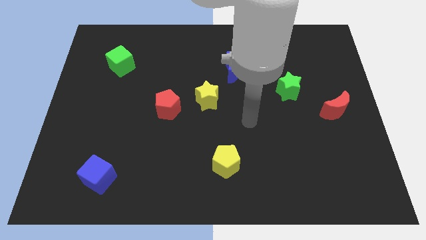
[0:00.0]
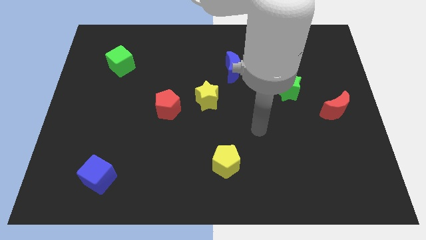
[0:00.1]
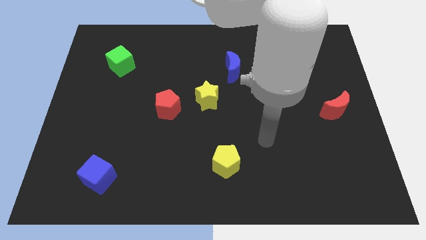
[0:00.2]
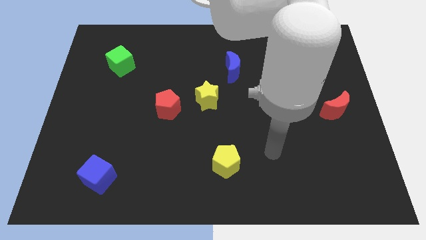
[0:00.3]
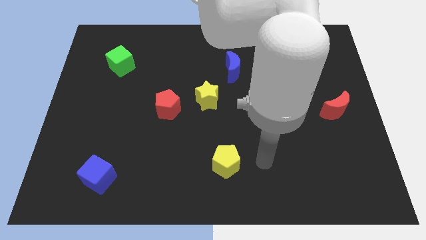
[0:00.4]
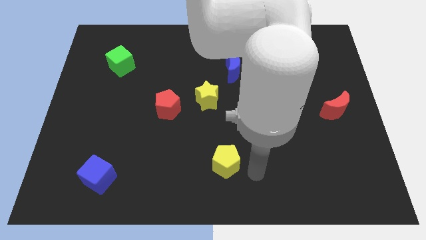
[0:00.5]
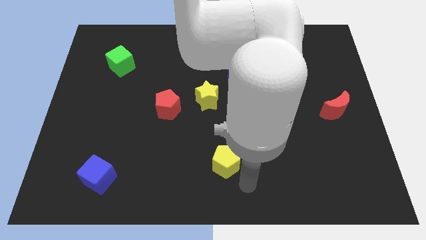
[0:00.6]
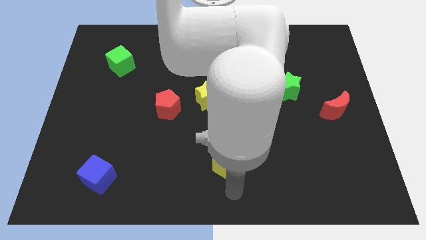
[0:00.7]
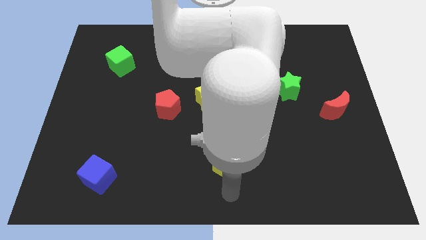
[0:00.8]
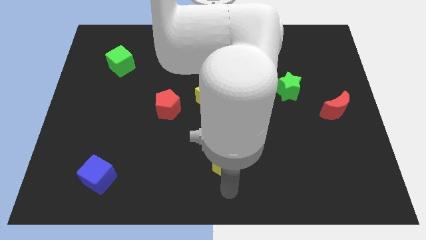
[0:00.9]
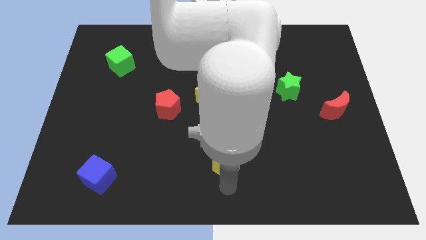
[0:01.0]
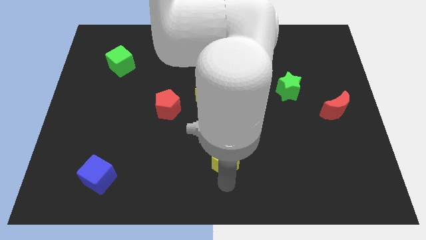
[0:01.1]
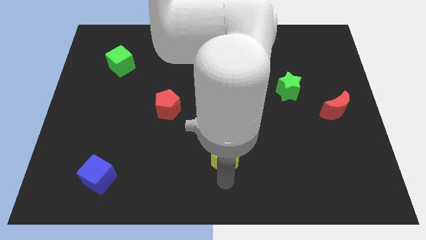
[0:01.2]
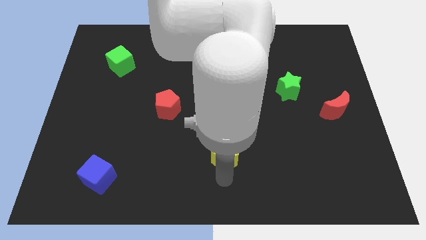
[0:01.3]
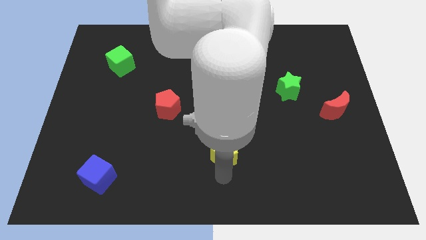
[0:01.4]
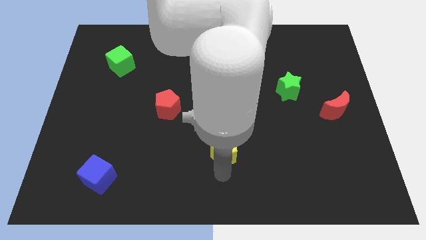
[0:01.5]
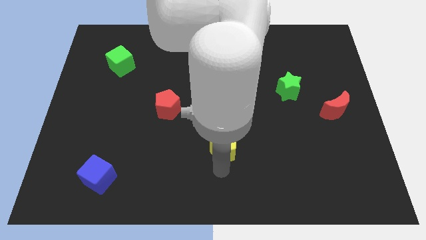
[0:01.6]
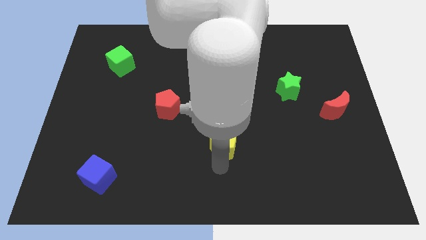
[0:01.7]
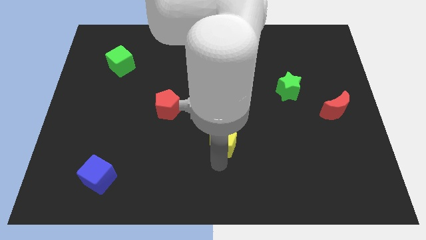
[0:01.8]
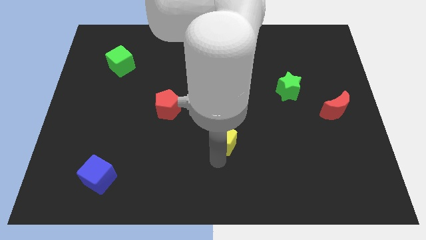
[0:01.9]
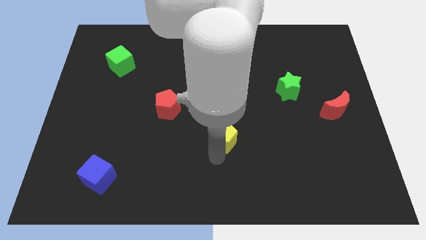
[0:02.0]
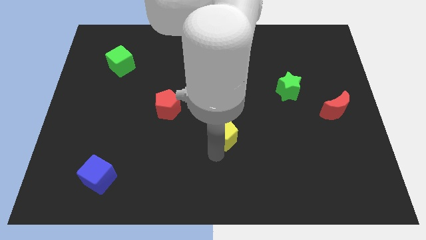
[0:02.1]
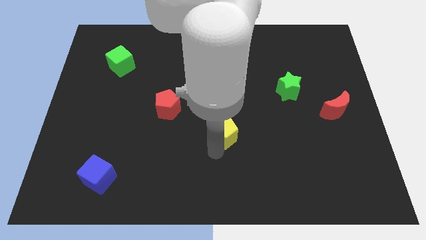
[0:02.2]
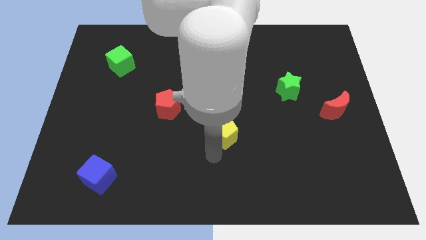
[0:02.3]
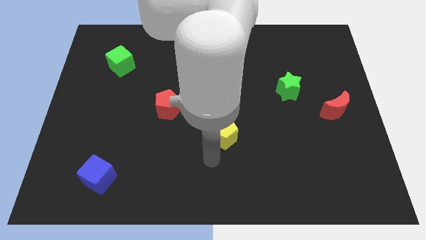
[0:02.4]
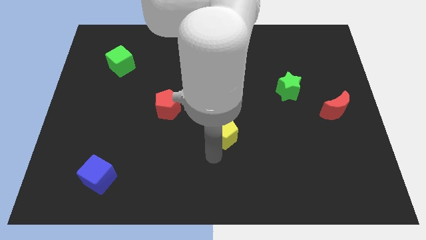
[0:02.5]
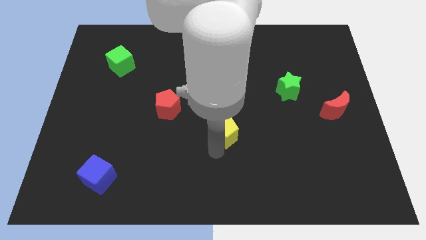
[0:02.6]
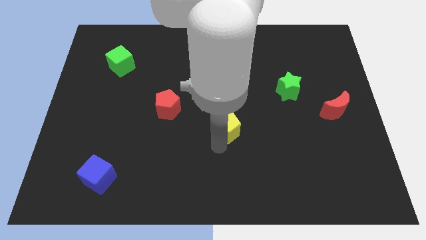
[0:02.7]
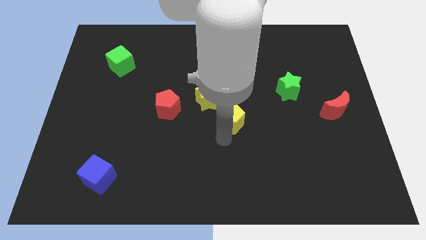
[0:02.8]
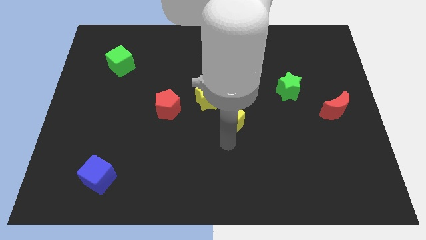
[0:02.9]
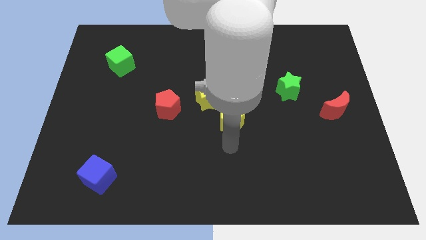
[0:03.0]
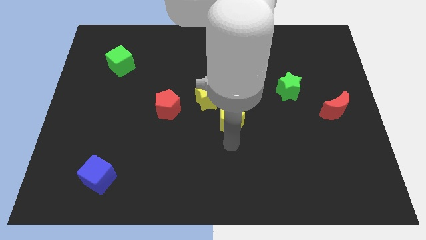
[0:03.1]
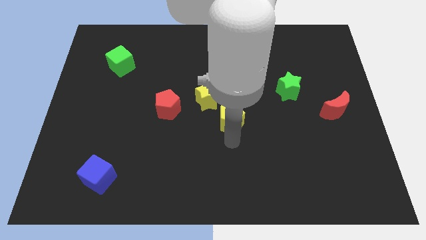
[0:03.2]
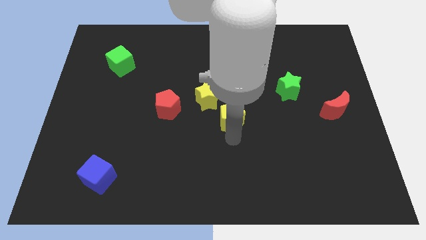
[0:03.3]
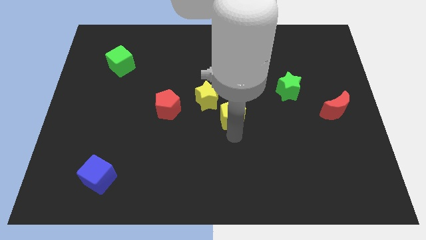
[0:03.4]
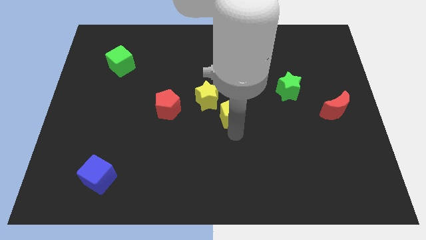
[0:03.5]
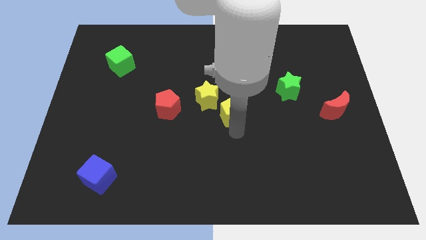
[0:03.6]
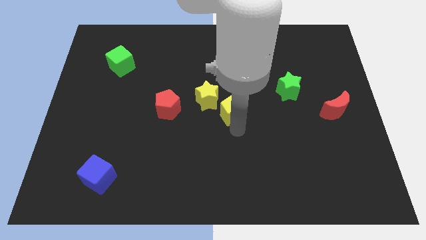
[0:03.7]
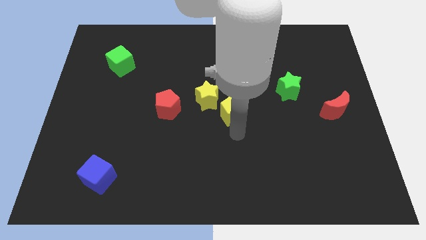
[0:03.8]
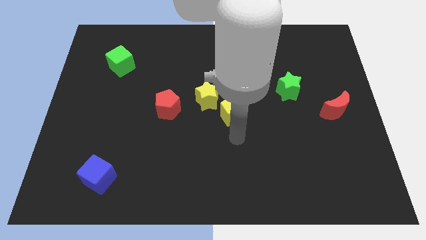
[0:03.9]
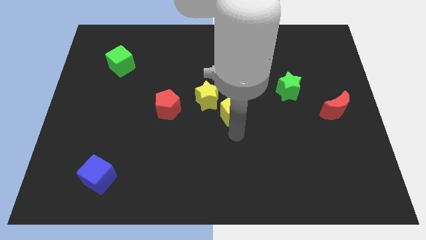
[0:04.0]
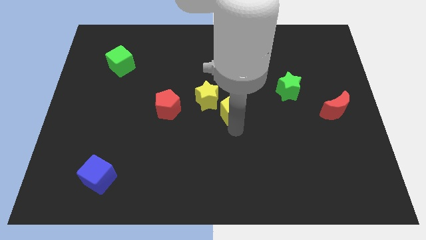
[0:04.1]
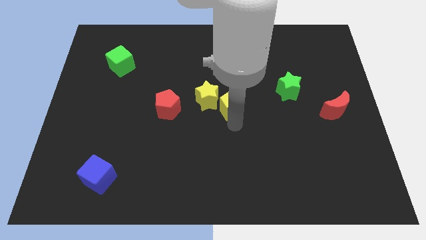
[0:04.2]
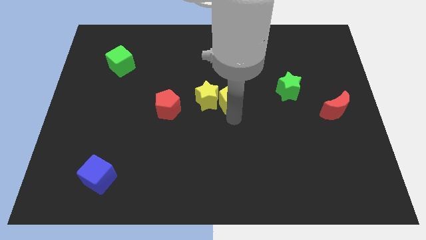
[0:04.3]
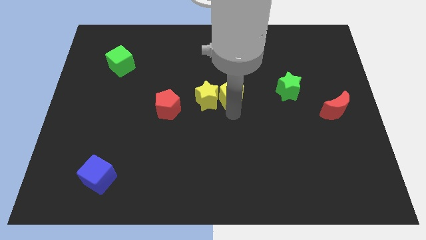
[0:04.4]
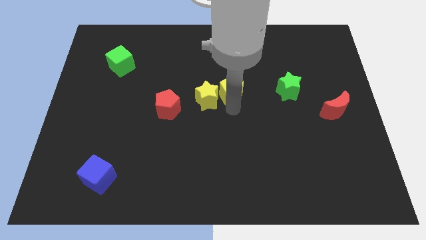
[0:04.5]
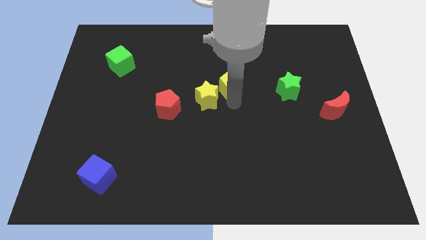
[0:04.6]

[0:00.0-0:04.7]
push the yellow pentagon upwards

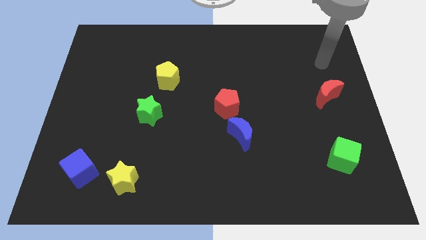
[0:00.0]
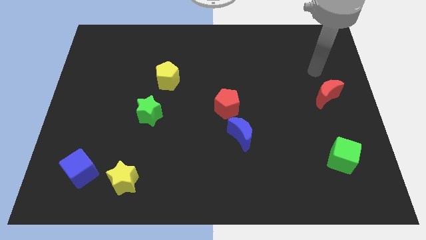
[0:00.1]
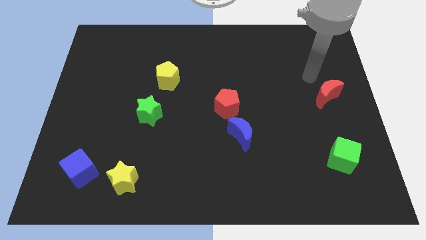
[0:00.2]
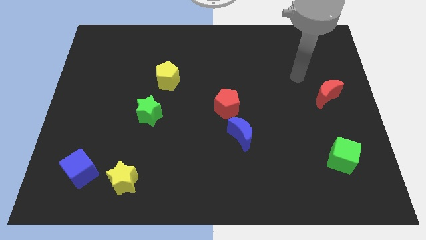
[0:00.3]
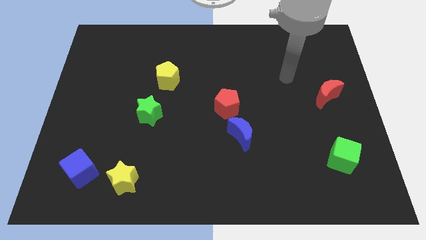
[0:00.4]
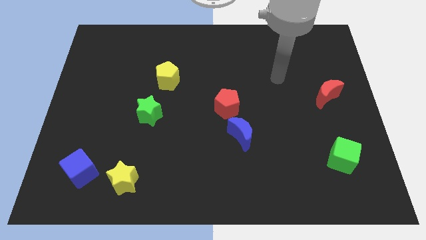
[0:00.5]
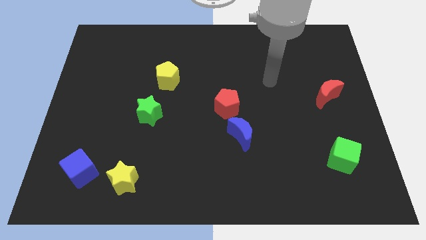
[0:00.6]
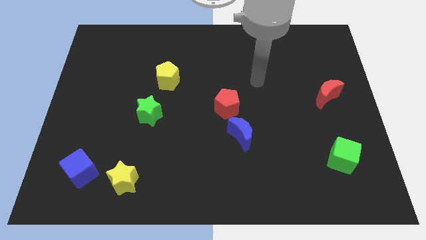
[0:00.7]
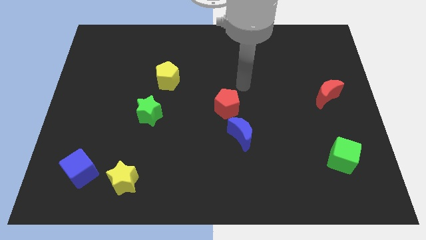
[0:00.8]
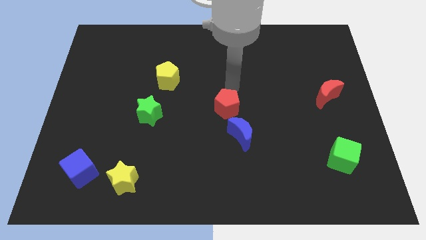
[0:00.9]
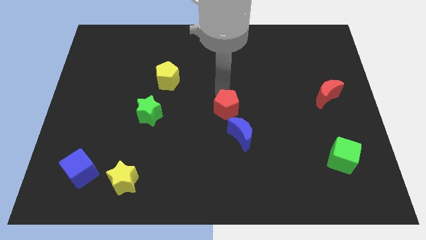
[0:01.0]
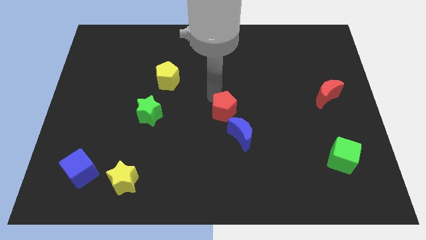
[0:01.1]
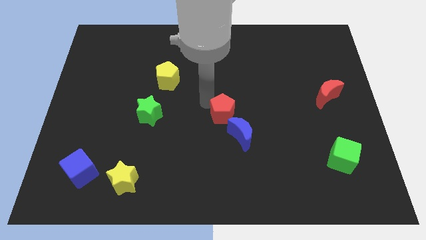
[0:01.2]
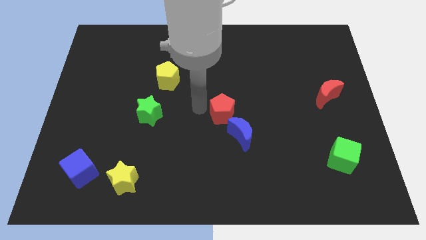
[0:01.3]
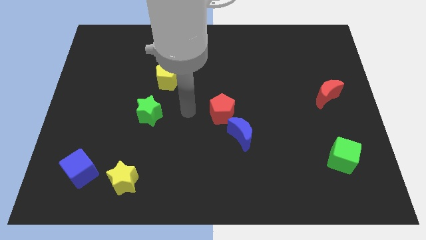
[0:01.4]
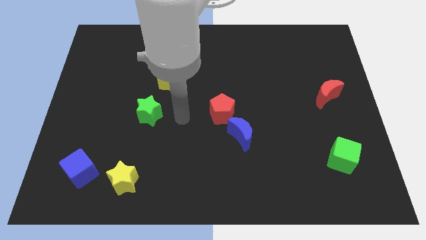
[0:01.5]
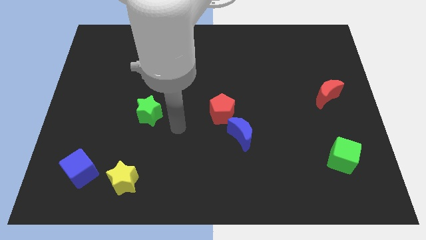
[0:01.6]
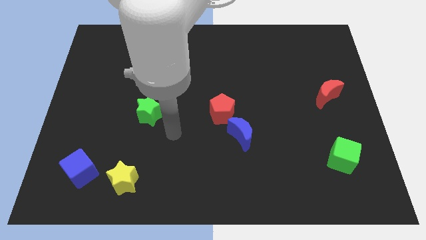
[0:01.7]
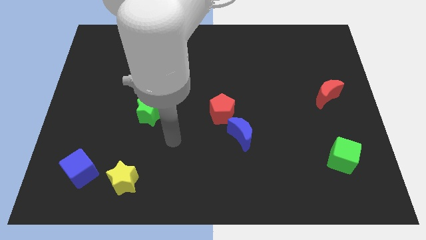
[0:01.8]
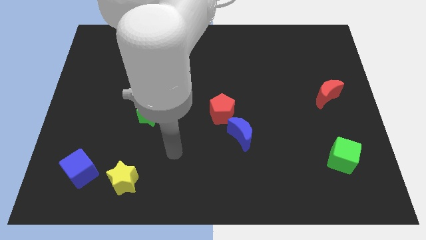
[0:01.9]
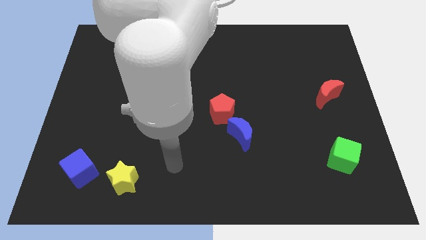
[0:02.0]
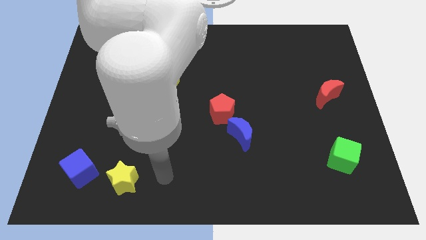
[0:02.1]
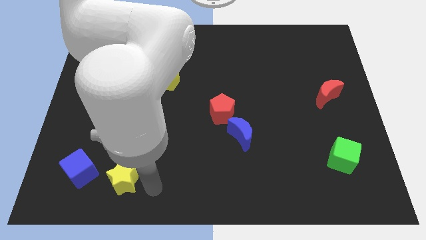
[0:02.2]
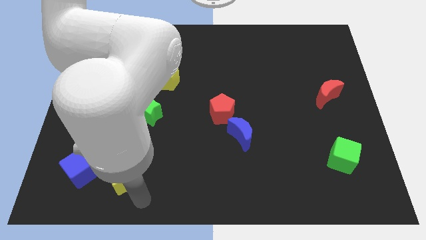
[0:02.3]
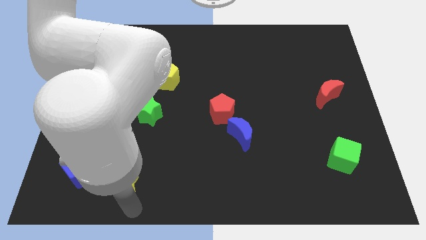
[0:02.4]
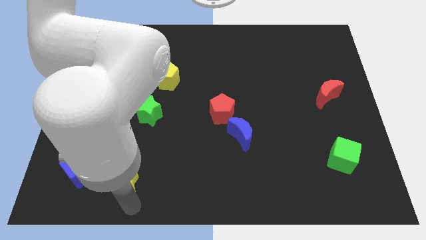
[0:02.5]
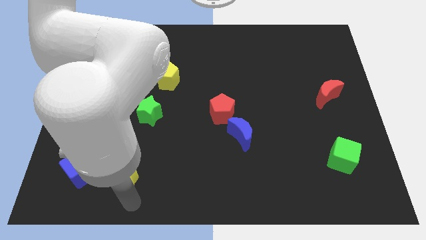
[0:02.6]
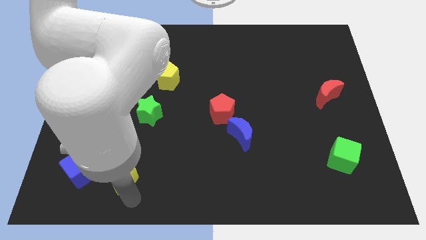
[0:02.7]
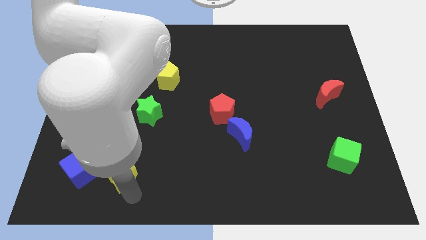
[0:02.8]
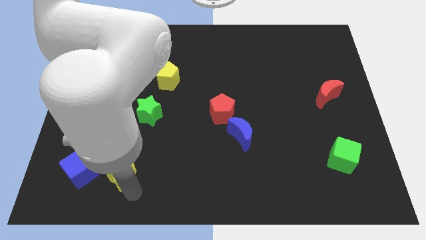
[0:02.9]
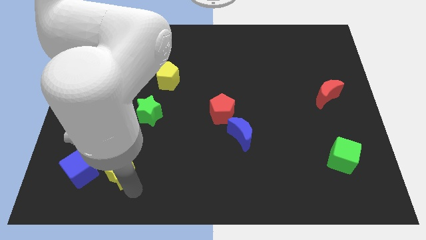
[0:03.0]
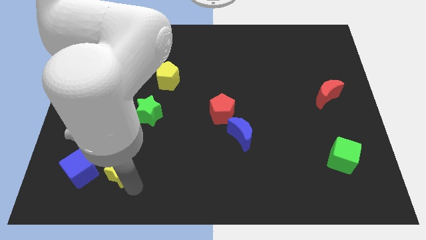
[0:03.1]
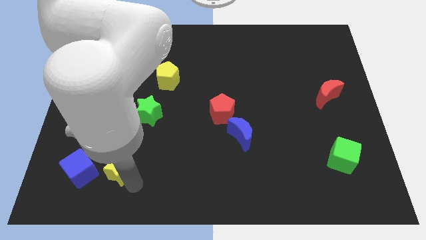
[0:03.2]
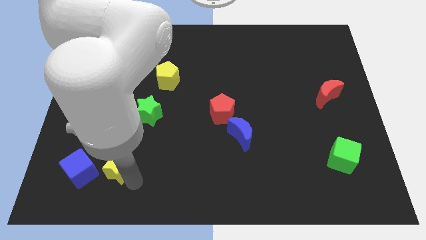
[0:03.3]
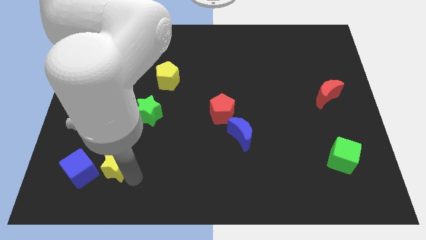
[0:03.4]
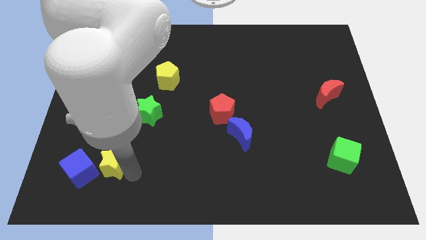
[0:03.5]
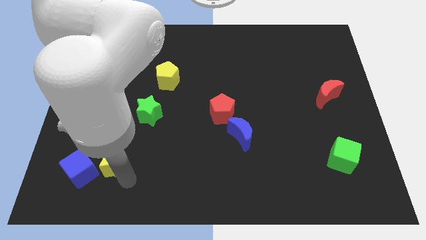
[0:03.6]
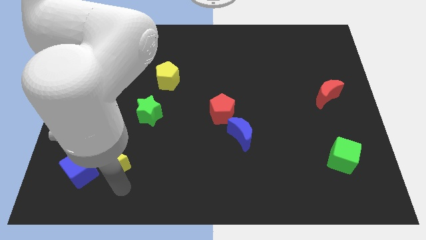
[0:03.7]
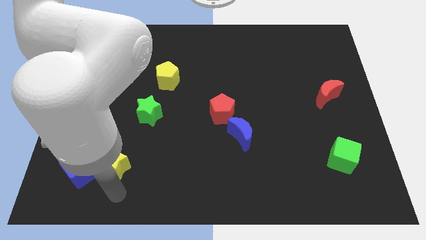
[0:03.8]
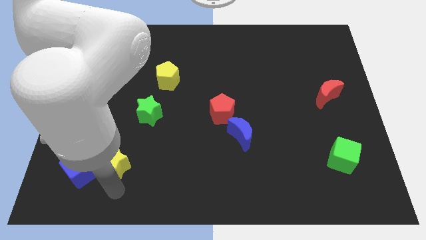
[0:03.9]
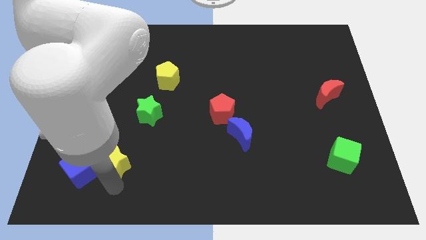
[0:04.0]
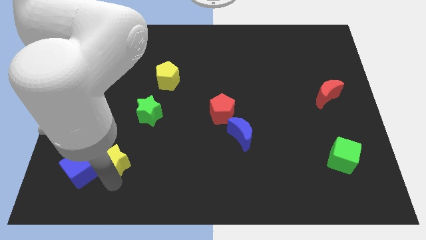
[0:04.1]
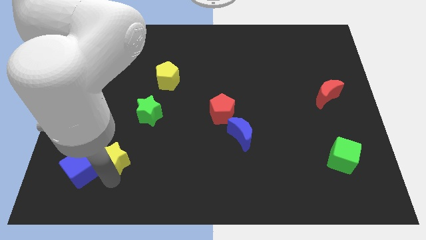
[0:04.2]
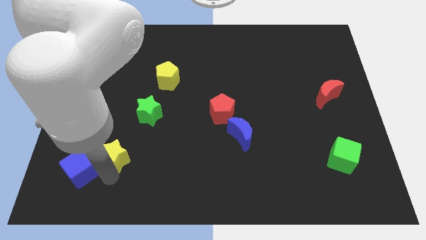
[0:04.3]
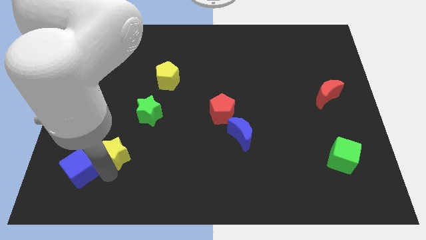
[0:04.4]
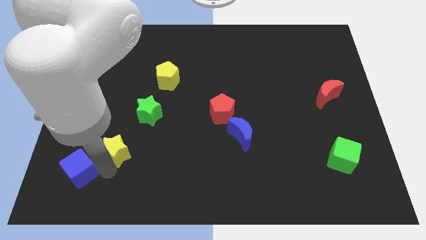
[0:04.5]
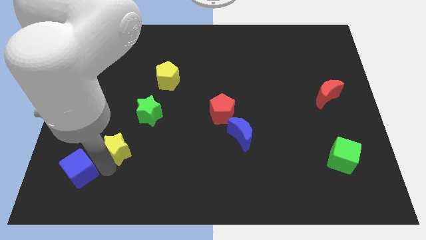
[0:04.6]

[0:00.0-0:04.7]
slightly slide the yellow star up
